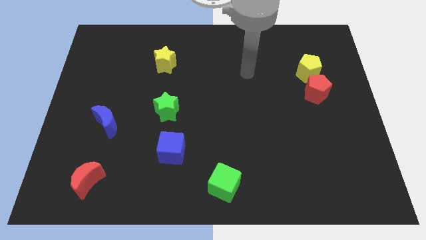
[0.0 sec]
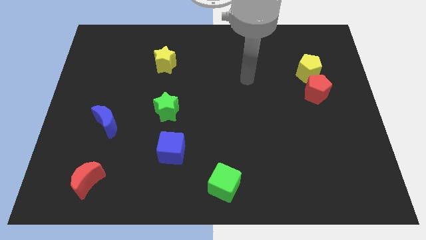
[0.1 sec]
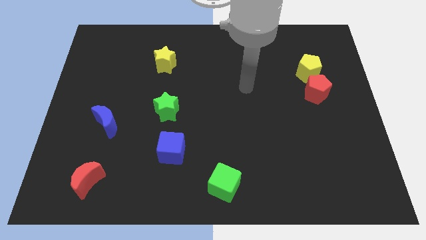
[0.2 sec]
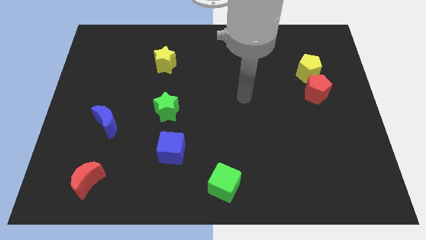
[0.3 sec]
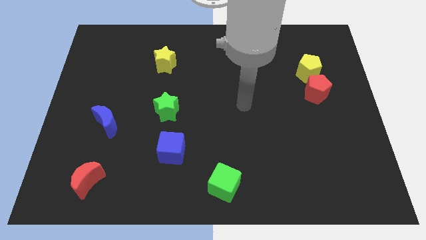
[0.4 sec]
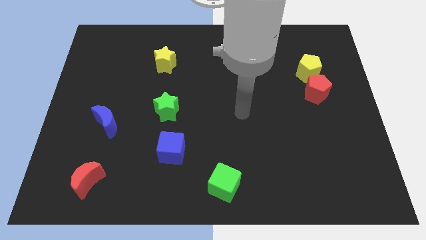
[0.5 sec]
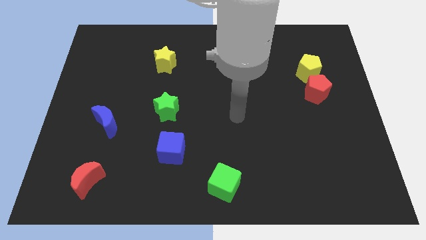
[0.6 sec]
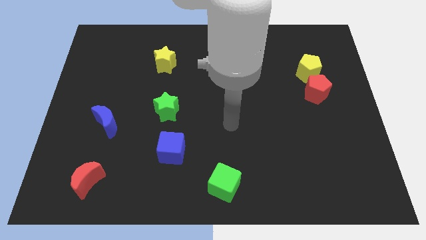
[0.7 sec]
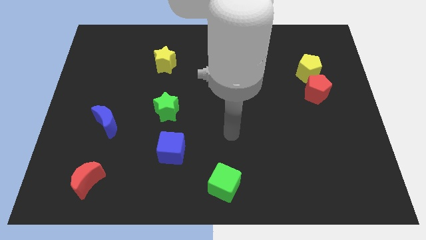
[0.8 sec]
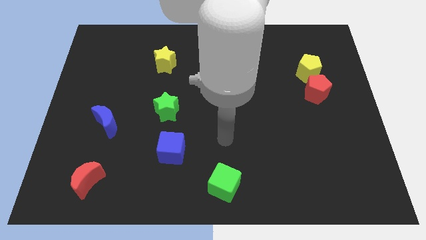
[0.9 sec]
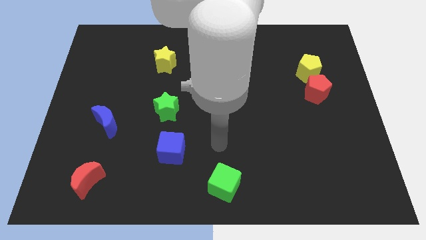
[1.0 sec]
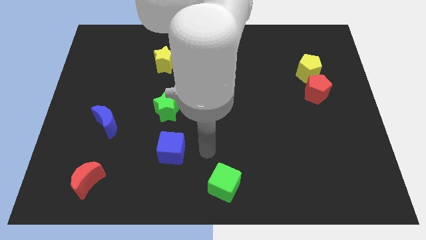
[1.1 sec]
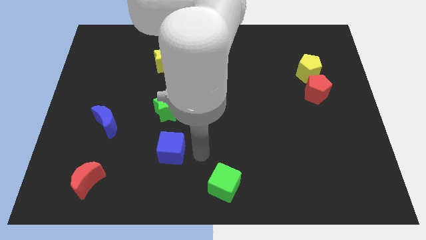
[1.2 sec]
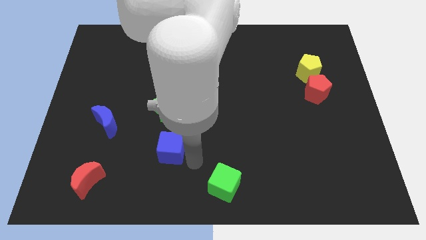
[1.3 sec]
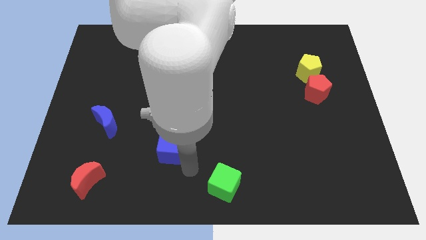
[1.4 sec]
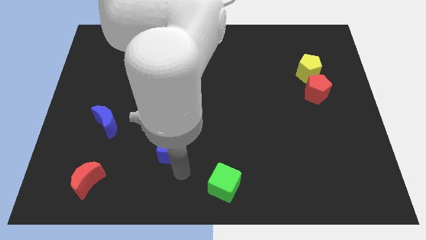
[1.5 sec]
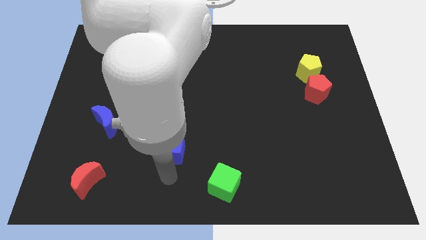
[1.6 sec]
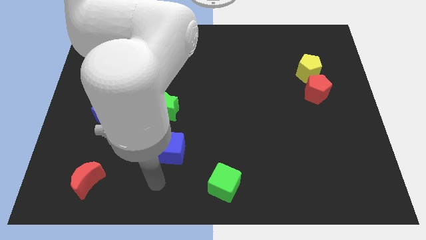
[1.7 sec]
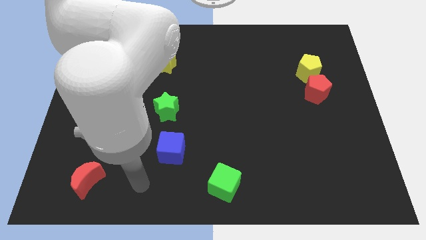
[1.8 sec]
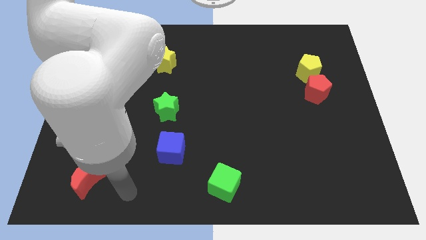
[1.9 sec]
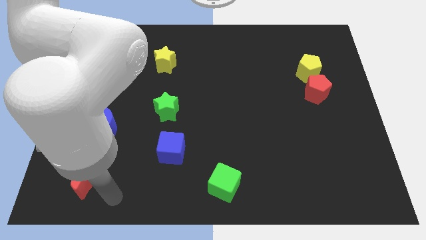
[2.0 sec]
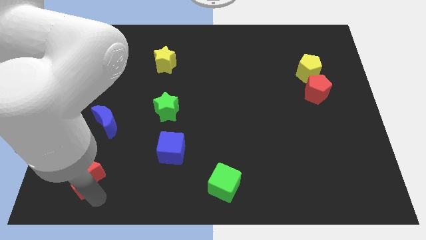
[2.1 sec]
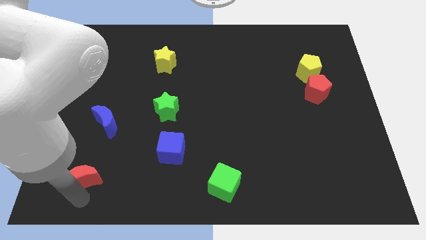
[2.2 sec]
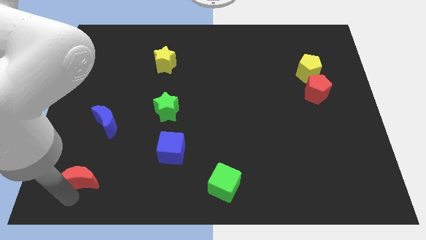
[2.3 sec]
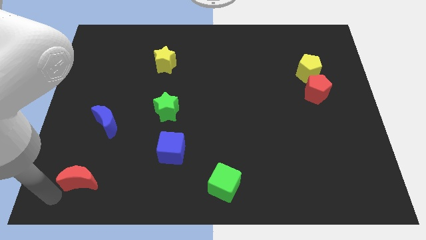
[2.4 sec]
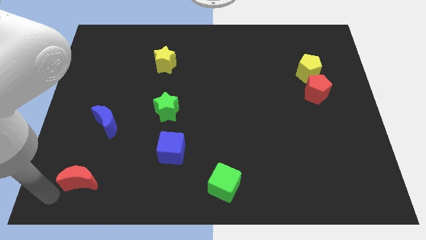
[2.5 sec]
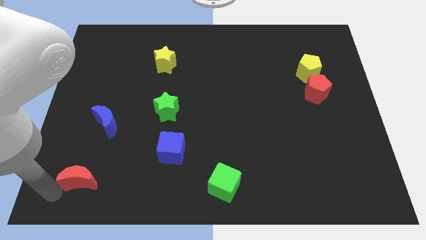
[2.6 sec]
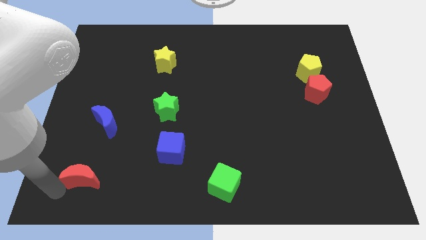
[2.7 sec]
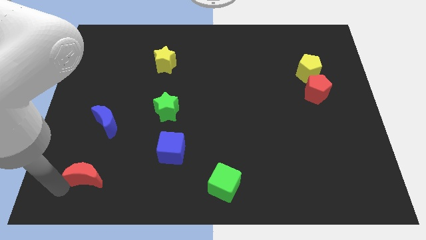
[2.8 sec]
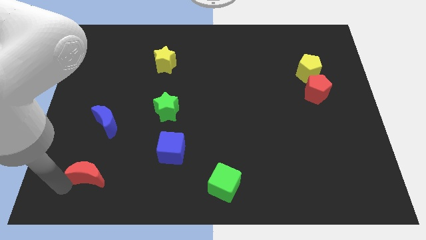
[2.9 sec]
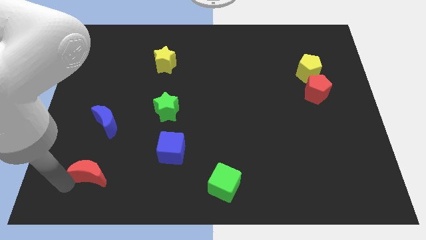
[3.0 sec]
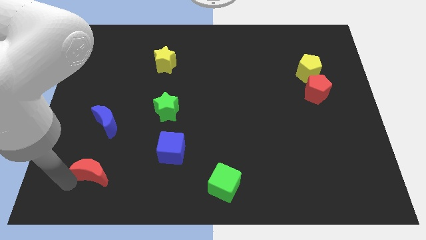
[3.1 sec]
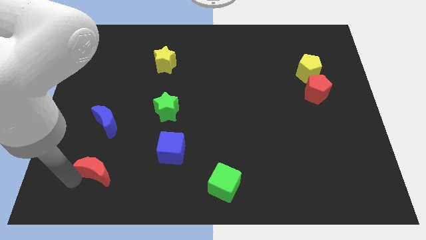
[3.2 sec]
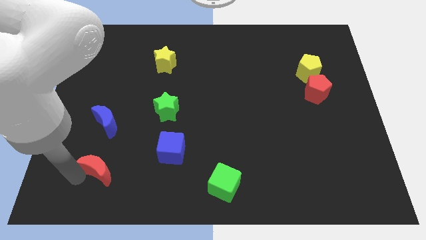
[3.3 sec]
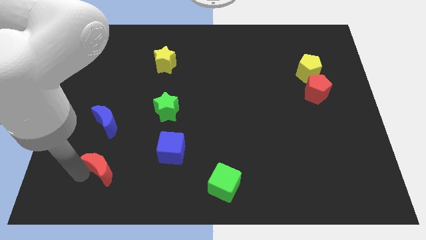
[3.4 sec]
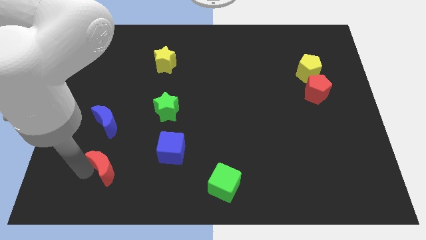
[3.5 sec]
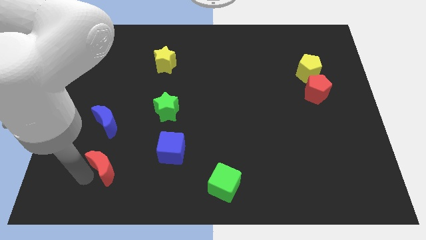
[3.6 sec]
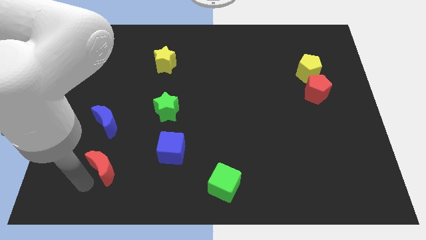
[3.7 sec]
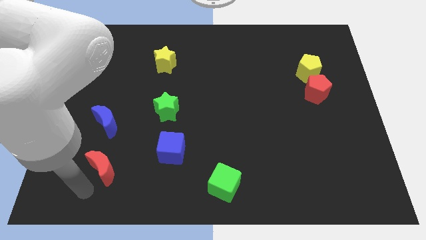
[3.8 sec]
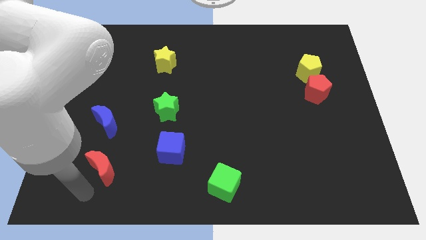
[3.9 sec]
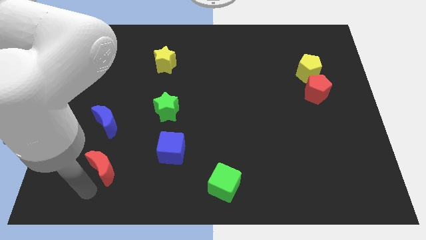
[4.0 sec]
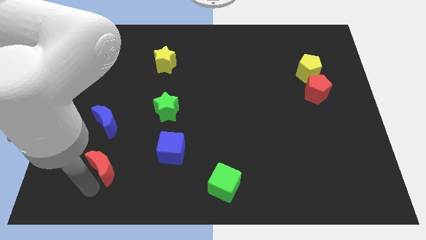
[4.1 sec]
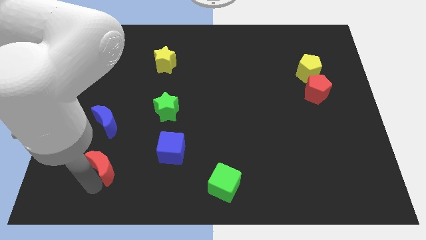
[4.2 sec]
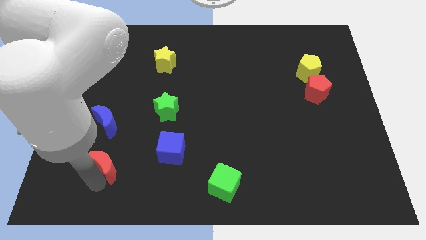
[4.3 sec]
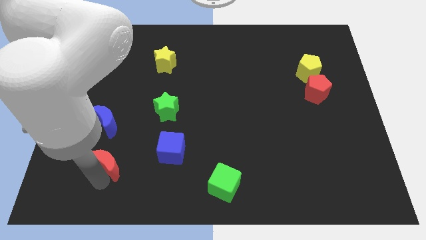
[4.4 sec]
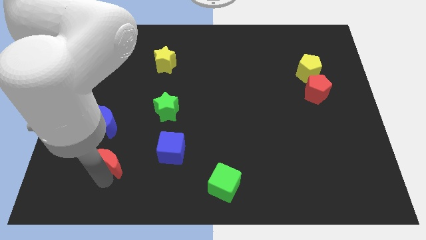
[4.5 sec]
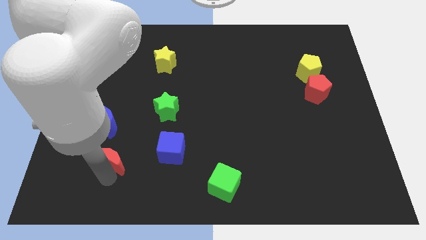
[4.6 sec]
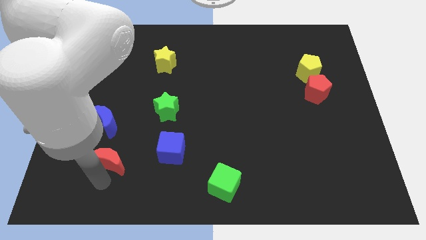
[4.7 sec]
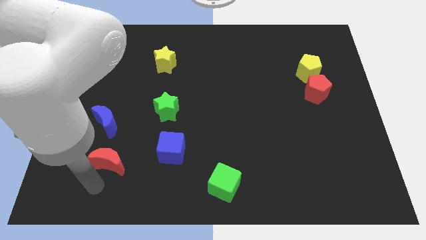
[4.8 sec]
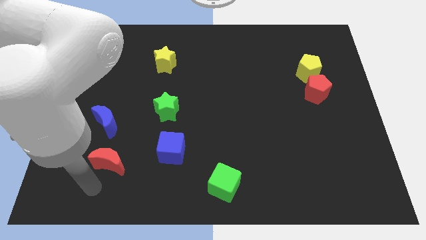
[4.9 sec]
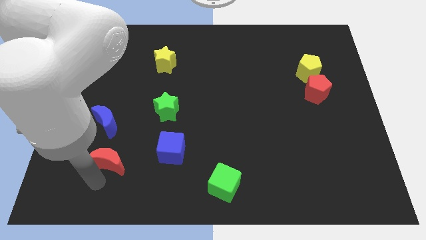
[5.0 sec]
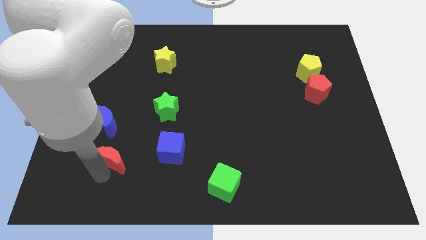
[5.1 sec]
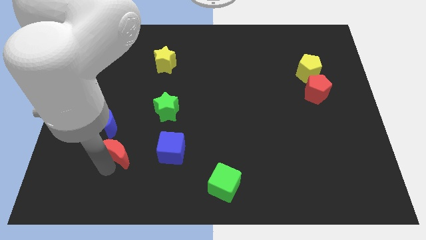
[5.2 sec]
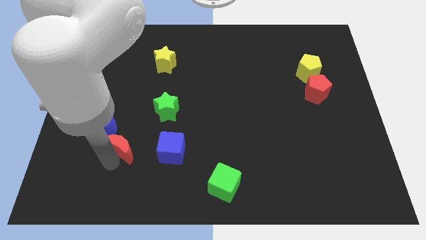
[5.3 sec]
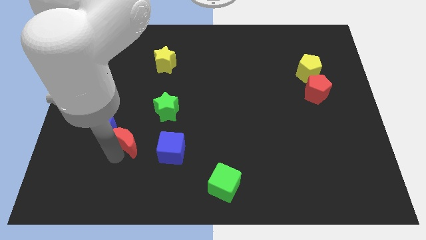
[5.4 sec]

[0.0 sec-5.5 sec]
put the red moon to the bottom left of the green star

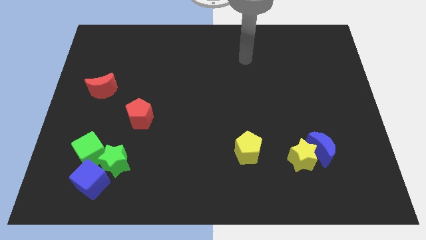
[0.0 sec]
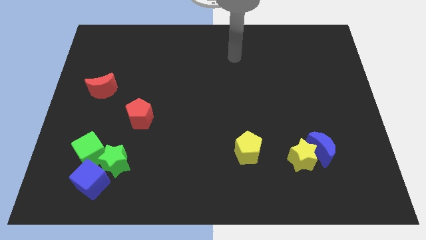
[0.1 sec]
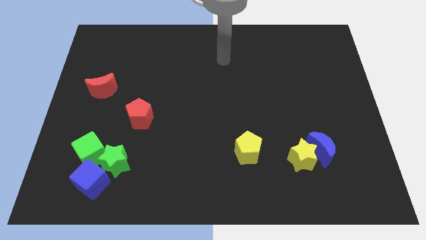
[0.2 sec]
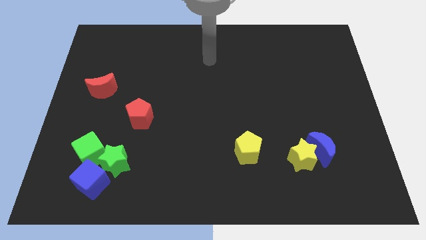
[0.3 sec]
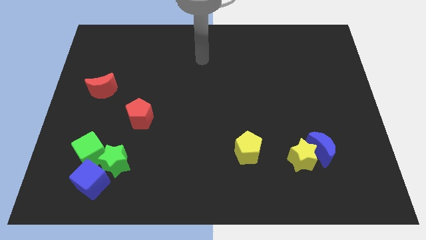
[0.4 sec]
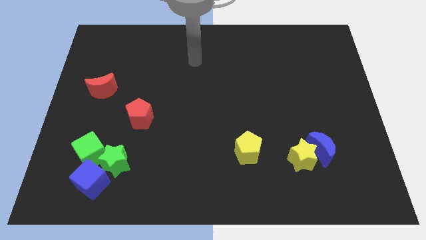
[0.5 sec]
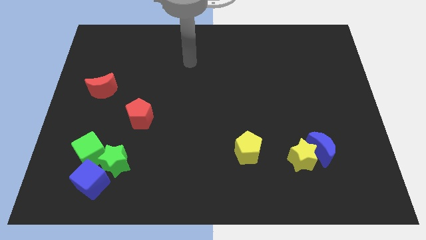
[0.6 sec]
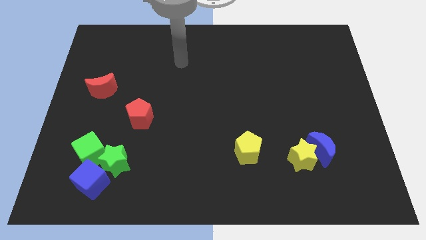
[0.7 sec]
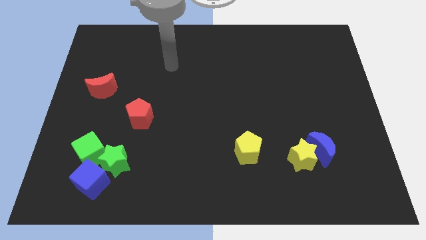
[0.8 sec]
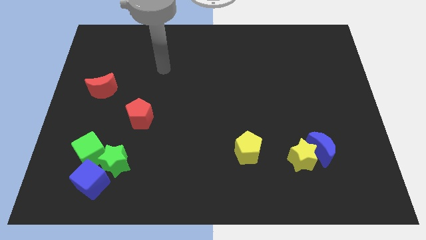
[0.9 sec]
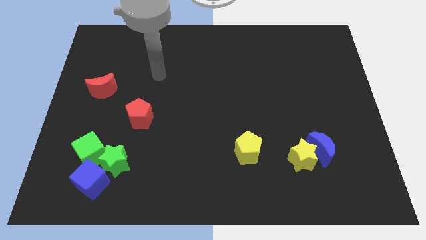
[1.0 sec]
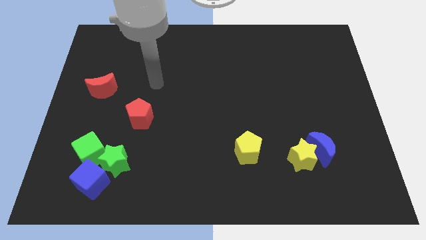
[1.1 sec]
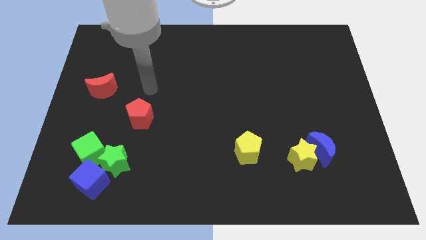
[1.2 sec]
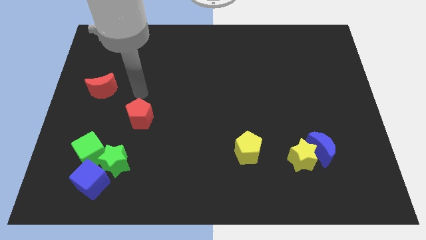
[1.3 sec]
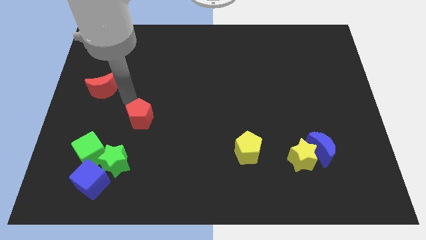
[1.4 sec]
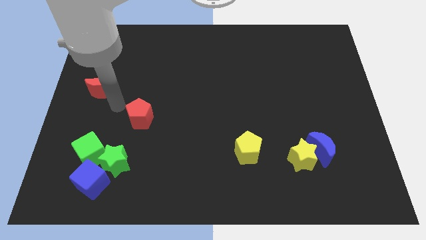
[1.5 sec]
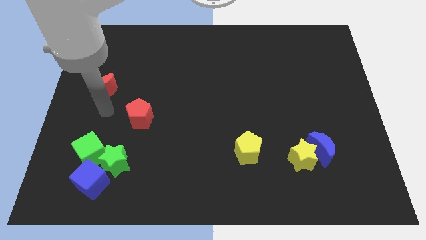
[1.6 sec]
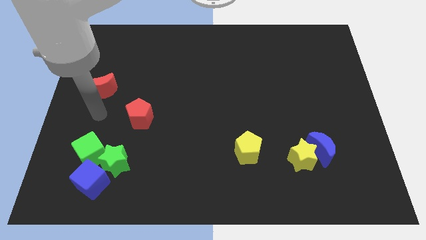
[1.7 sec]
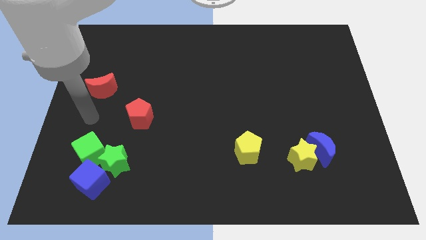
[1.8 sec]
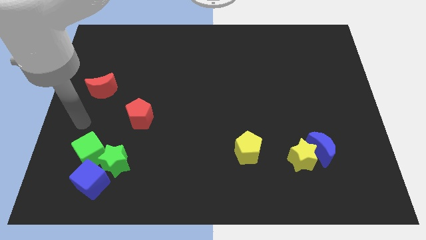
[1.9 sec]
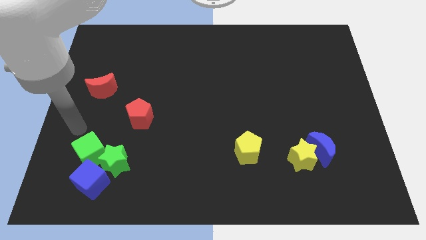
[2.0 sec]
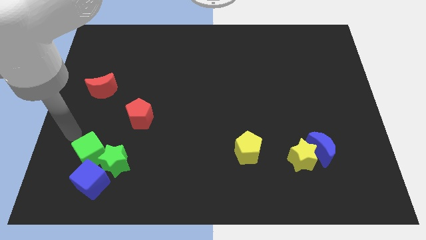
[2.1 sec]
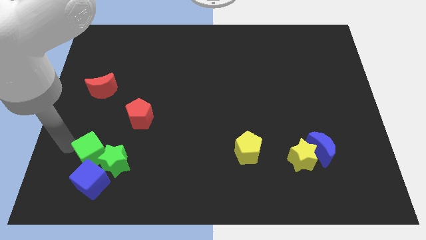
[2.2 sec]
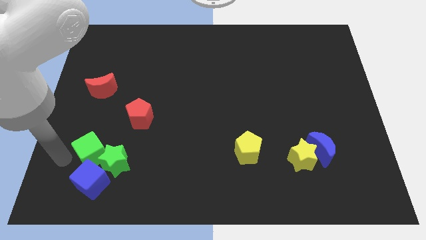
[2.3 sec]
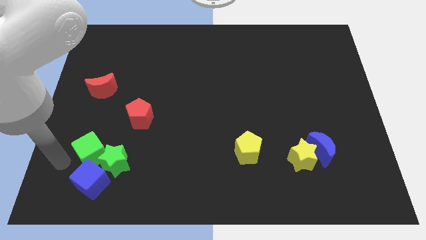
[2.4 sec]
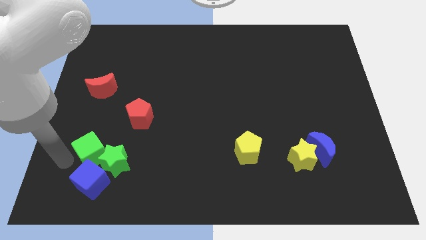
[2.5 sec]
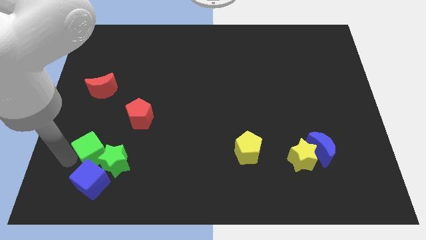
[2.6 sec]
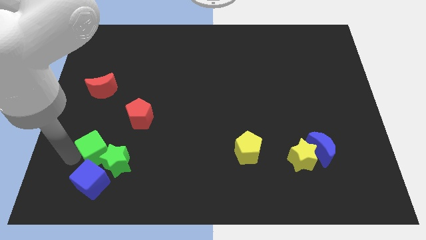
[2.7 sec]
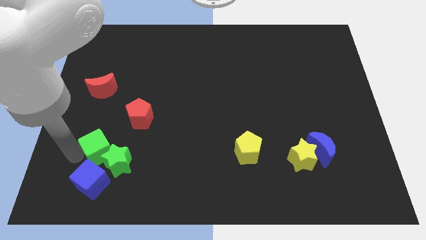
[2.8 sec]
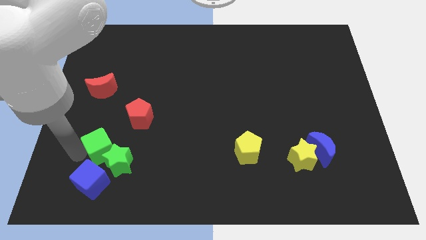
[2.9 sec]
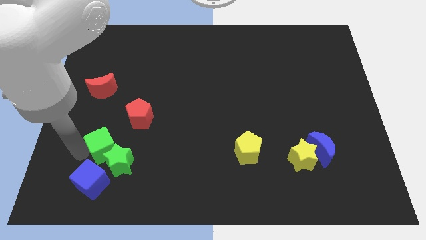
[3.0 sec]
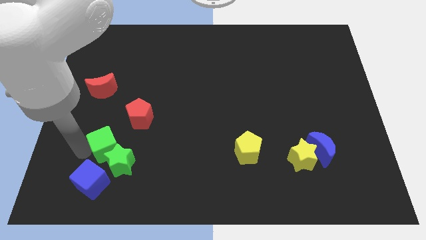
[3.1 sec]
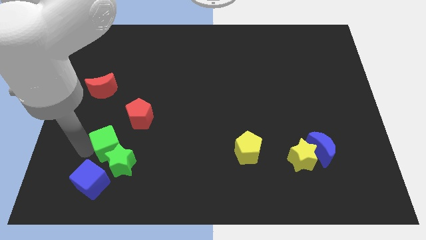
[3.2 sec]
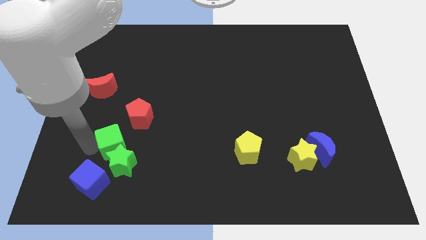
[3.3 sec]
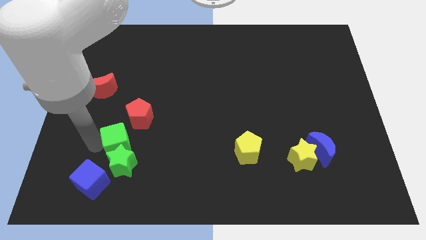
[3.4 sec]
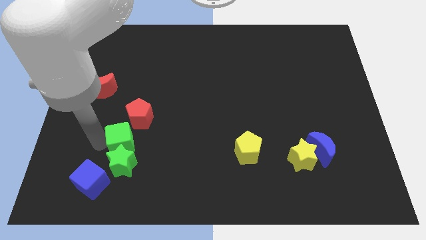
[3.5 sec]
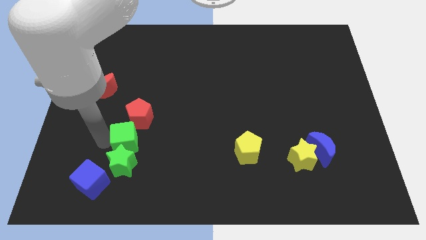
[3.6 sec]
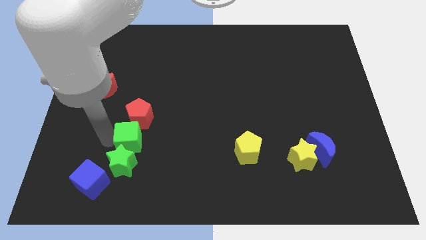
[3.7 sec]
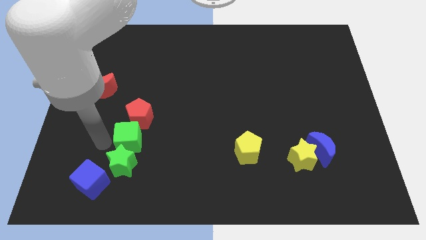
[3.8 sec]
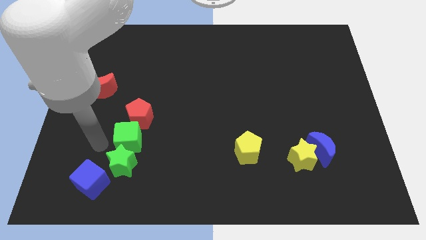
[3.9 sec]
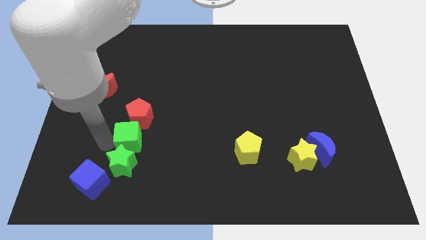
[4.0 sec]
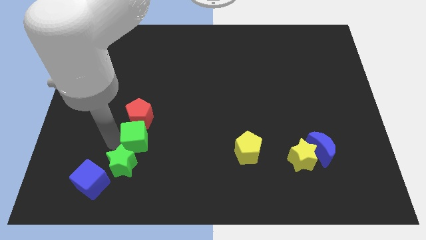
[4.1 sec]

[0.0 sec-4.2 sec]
push the green cube diagonally down and to the right of the red pentagon
